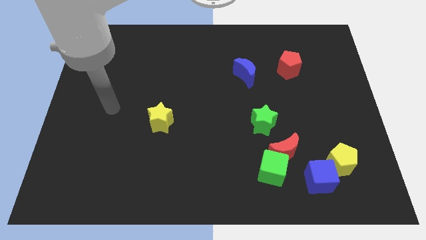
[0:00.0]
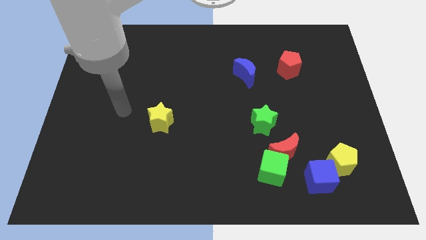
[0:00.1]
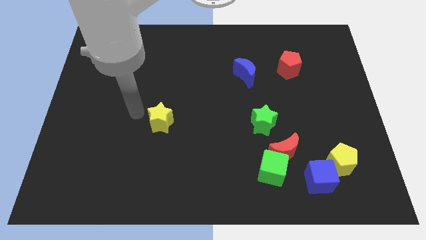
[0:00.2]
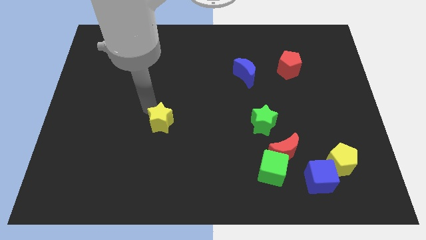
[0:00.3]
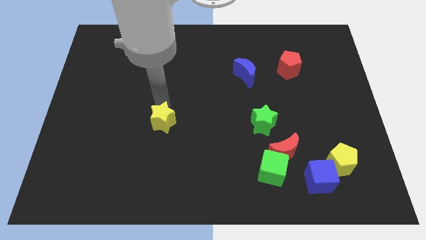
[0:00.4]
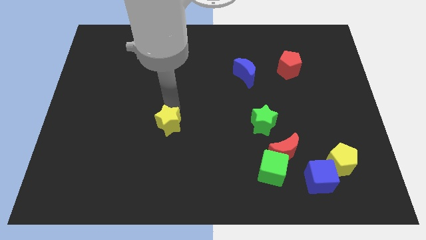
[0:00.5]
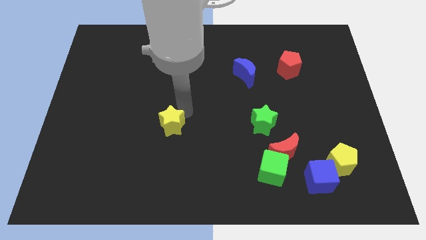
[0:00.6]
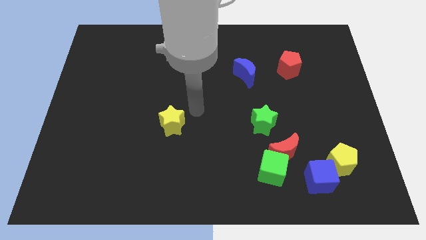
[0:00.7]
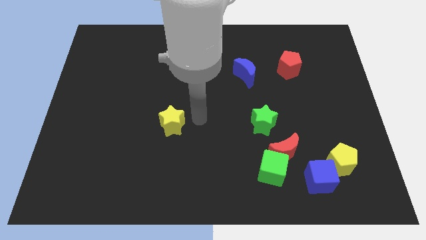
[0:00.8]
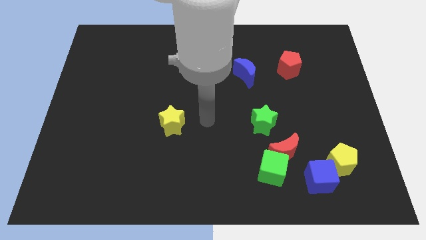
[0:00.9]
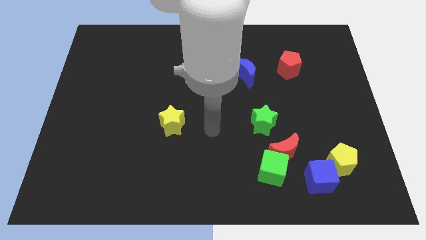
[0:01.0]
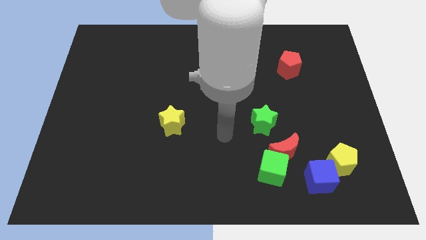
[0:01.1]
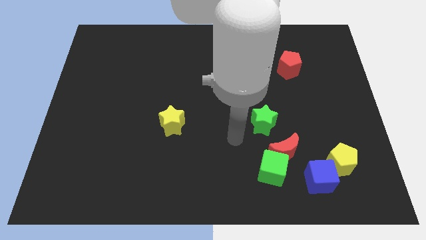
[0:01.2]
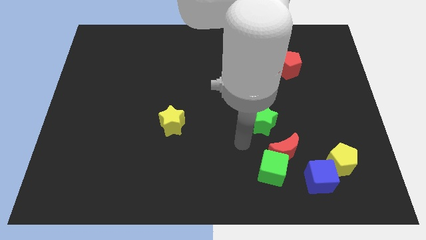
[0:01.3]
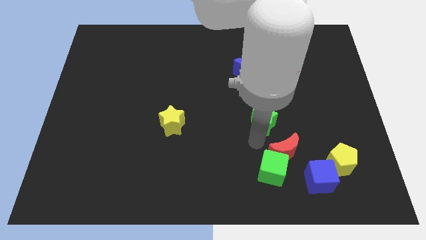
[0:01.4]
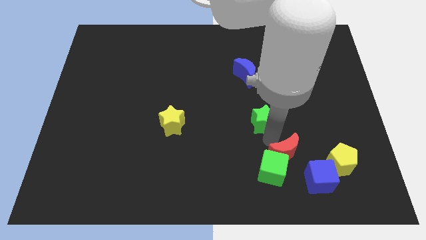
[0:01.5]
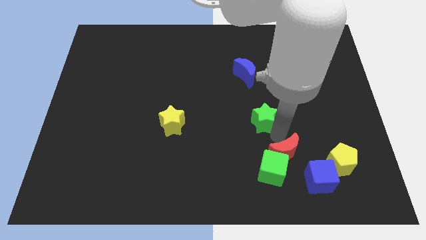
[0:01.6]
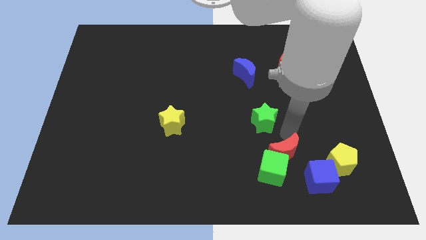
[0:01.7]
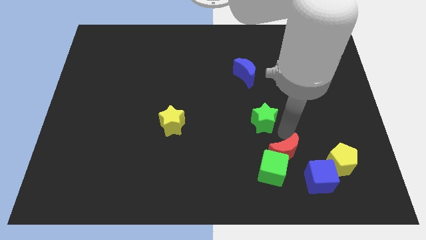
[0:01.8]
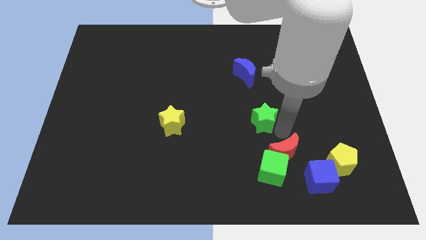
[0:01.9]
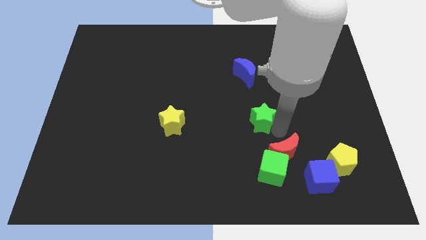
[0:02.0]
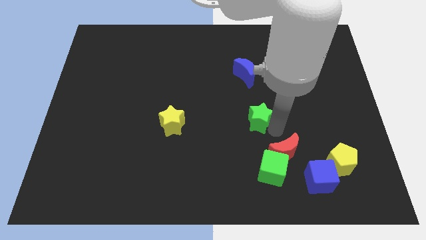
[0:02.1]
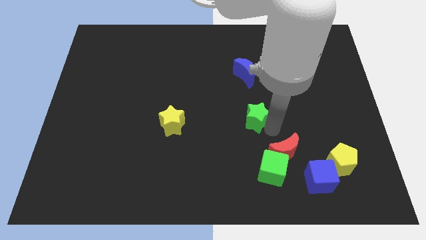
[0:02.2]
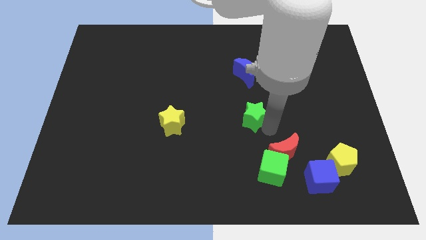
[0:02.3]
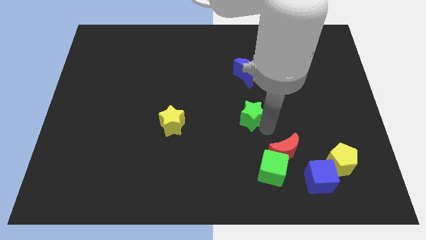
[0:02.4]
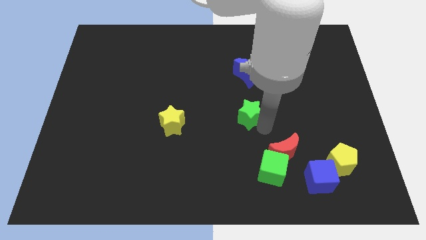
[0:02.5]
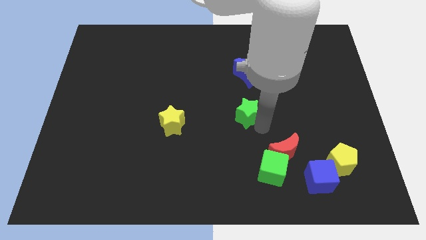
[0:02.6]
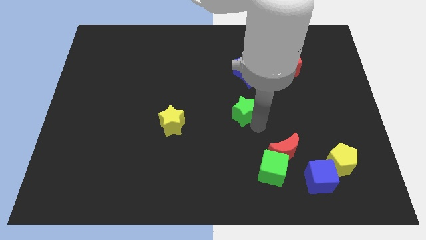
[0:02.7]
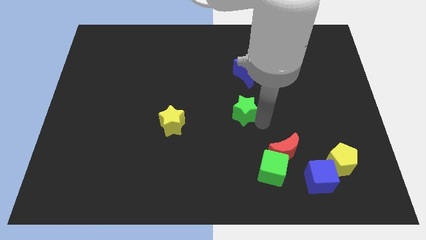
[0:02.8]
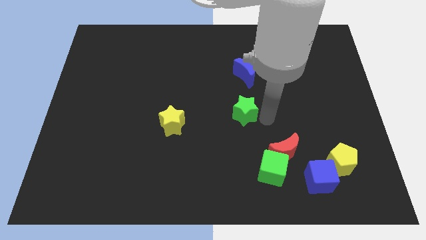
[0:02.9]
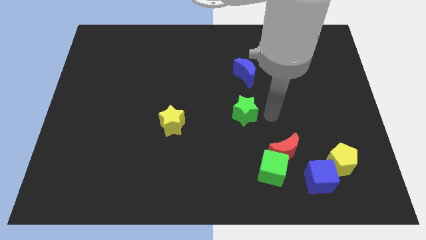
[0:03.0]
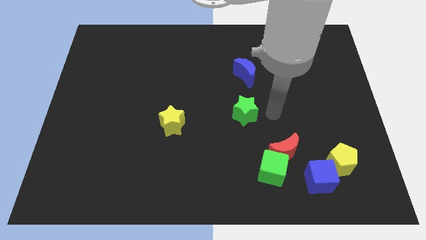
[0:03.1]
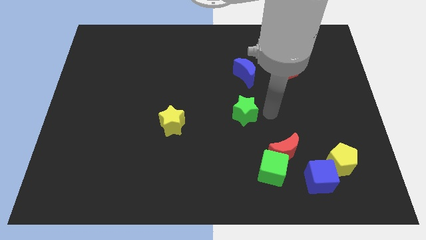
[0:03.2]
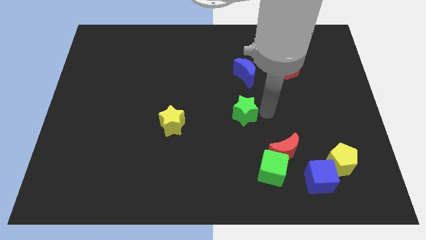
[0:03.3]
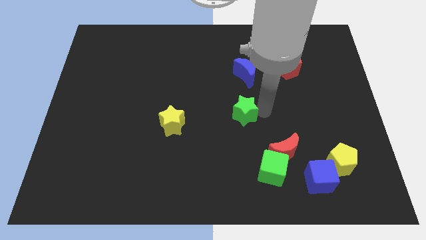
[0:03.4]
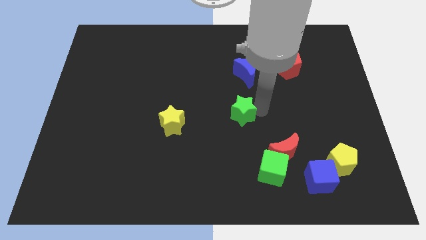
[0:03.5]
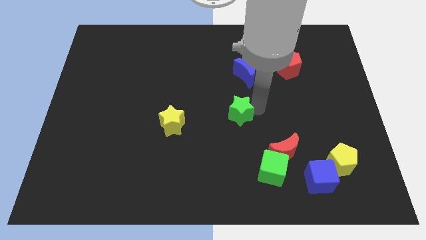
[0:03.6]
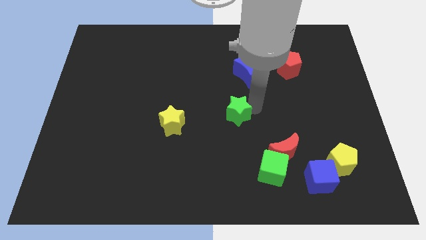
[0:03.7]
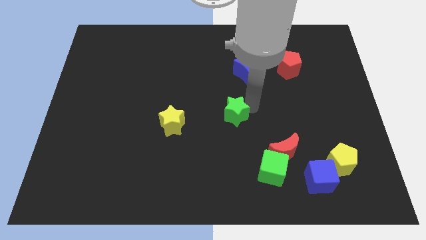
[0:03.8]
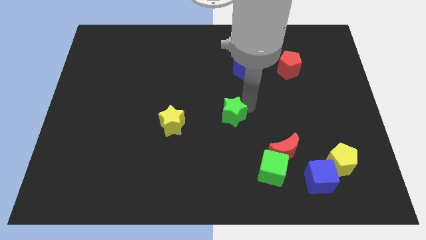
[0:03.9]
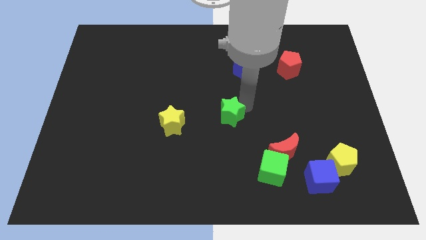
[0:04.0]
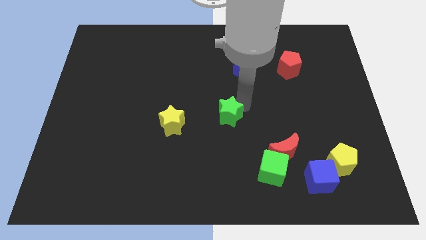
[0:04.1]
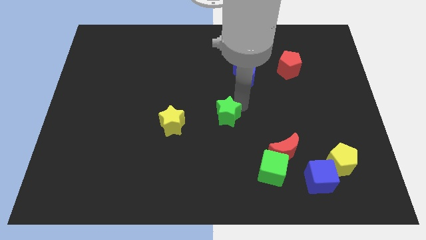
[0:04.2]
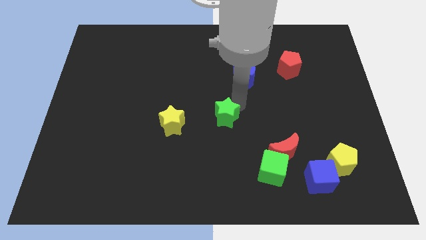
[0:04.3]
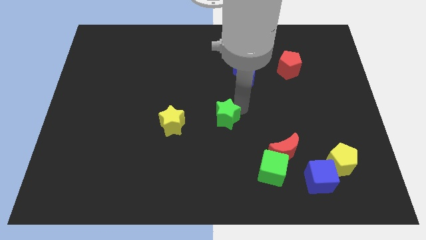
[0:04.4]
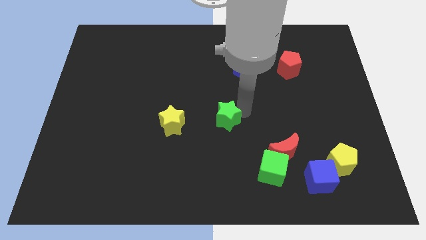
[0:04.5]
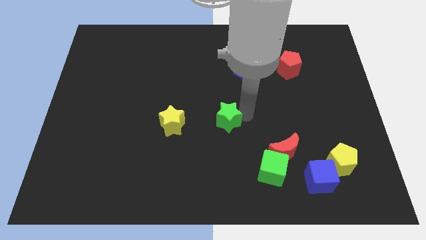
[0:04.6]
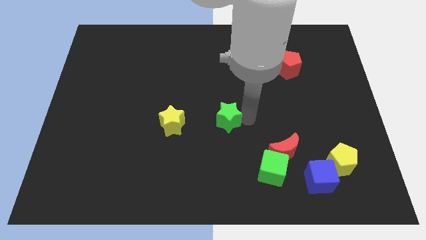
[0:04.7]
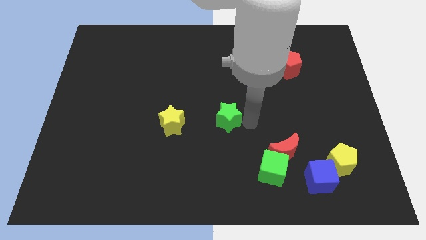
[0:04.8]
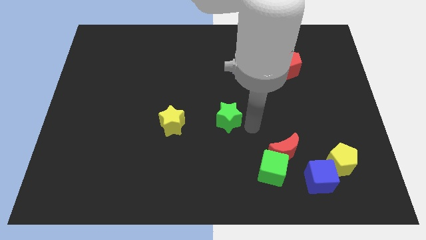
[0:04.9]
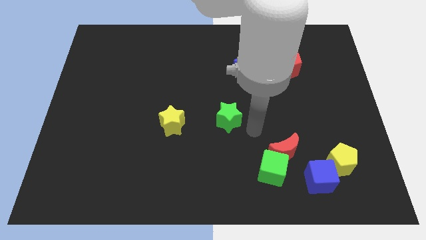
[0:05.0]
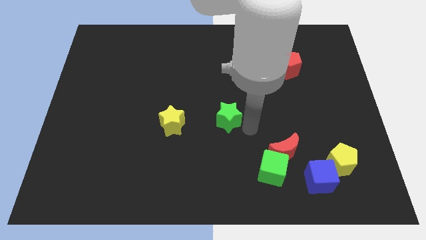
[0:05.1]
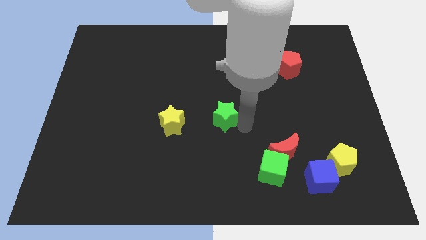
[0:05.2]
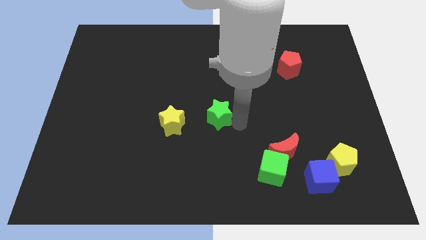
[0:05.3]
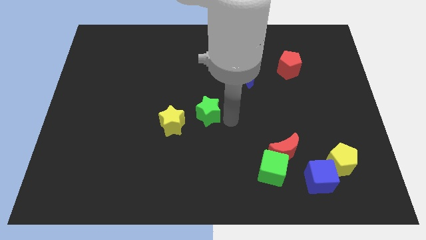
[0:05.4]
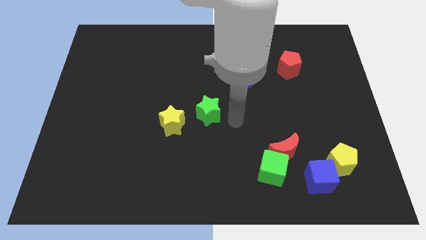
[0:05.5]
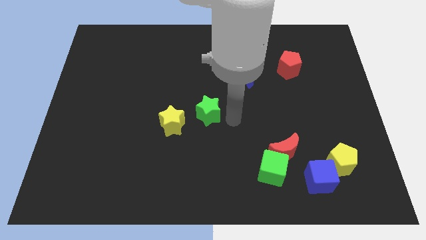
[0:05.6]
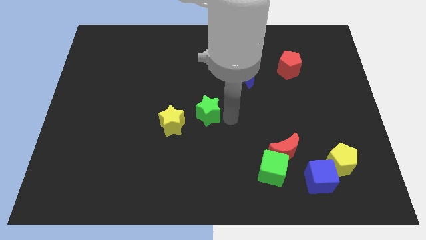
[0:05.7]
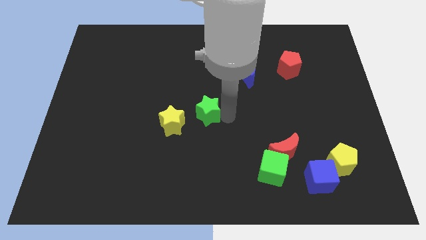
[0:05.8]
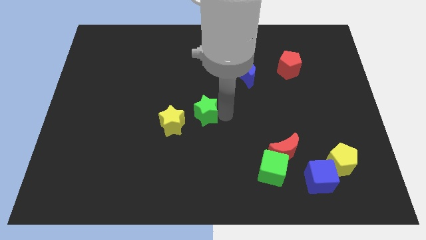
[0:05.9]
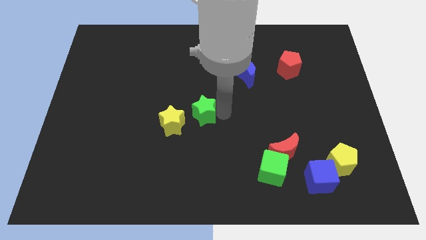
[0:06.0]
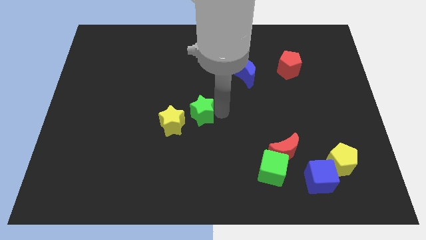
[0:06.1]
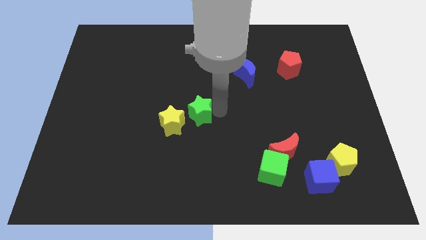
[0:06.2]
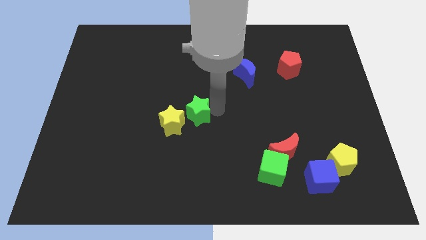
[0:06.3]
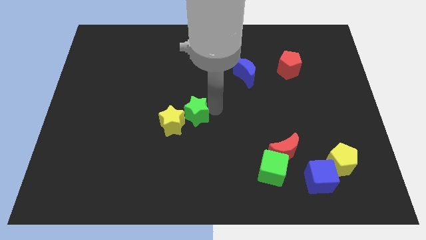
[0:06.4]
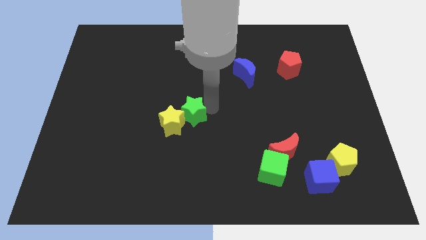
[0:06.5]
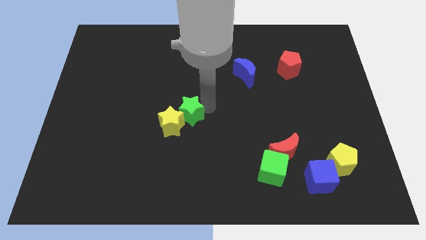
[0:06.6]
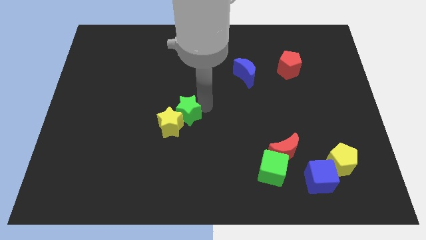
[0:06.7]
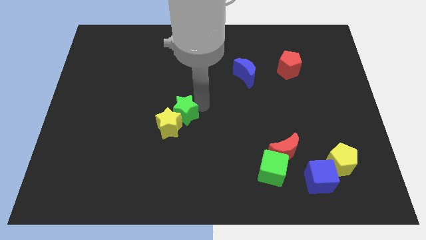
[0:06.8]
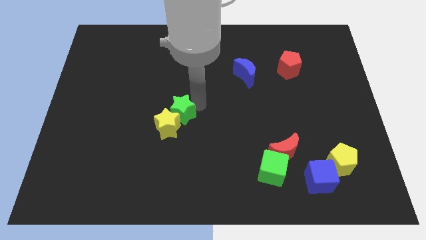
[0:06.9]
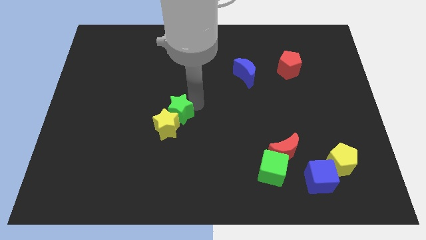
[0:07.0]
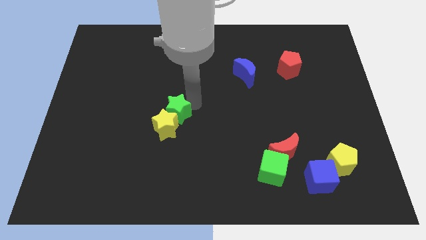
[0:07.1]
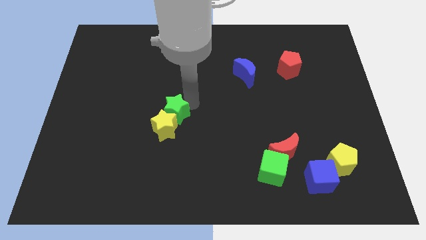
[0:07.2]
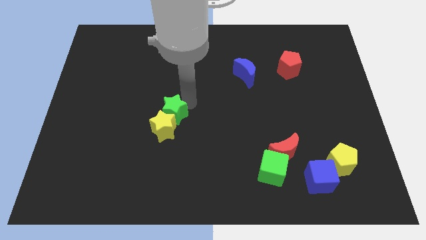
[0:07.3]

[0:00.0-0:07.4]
push the green star to the left

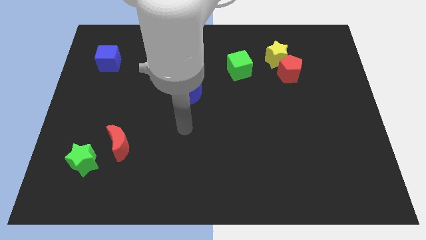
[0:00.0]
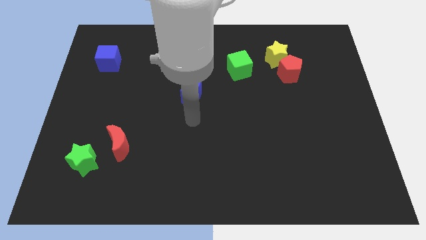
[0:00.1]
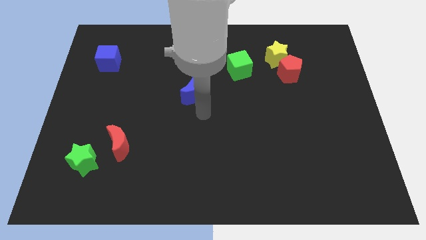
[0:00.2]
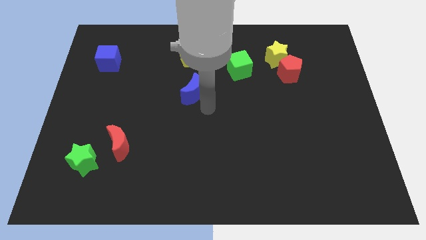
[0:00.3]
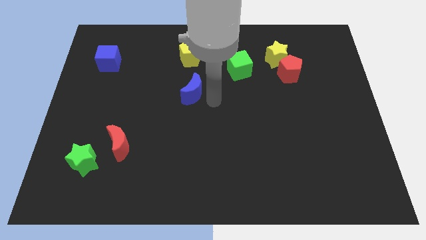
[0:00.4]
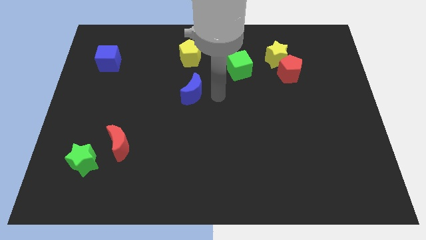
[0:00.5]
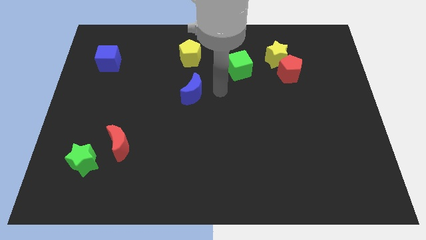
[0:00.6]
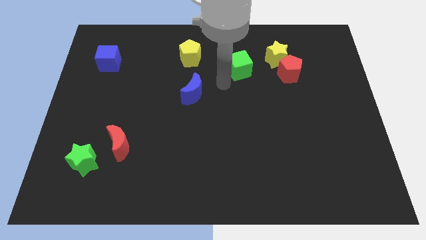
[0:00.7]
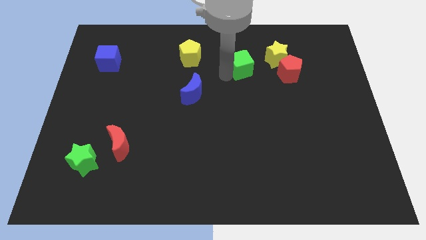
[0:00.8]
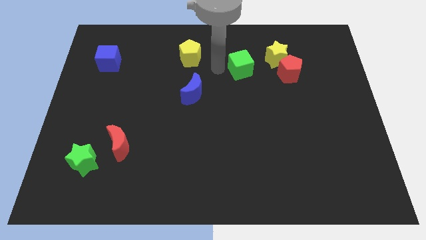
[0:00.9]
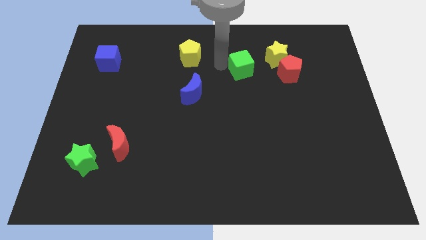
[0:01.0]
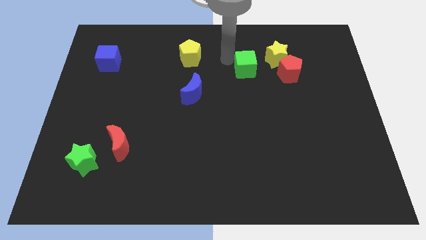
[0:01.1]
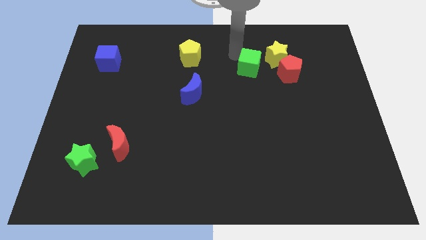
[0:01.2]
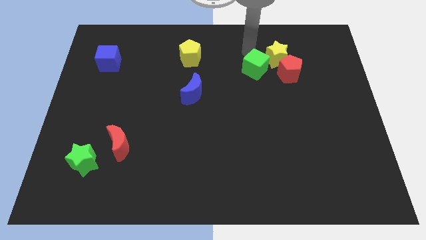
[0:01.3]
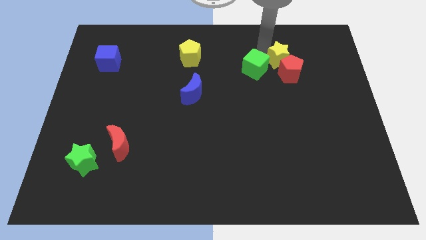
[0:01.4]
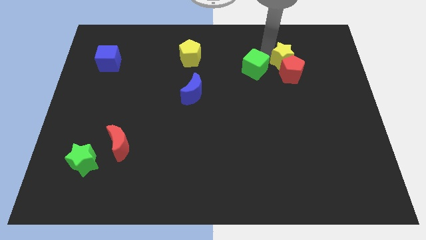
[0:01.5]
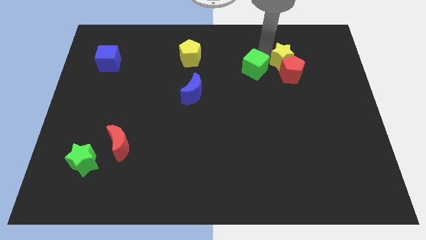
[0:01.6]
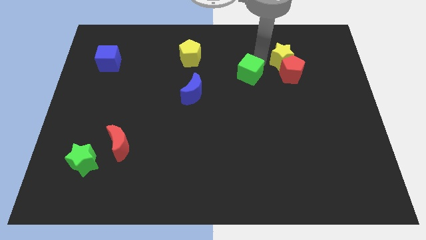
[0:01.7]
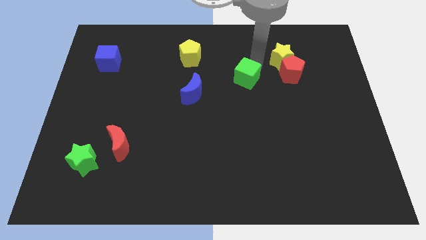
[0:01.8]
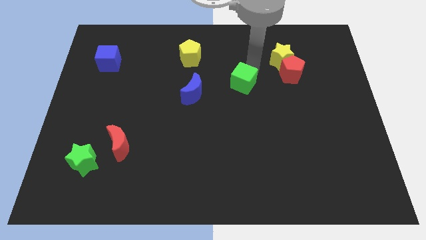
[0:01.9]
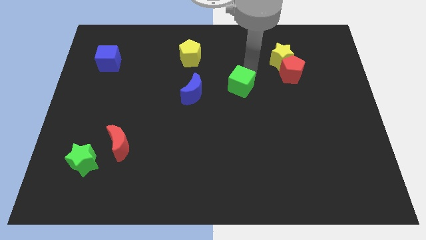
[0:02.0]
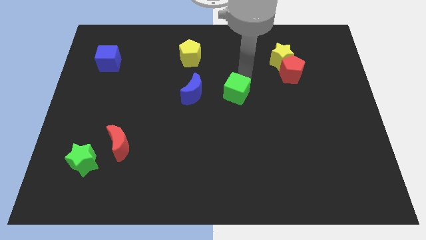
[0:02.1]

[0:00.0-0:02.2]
slide the green cube downwards a little
